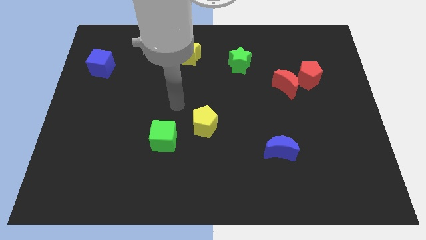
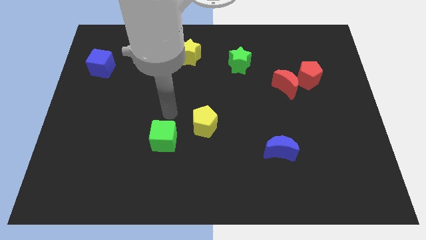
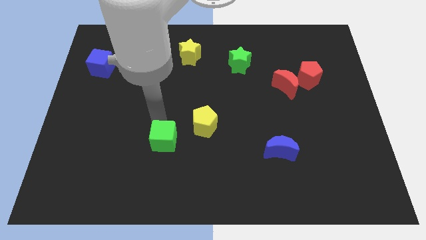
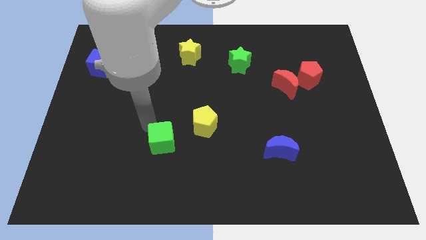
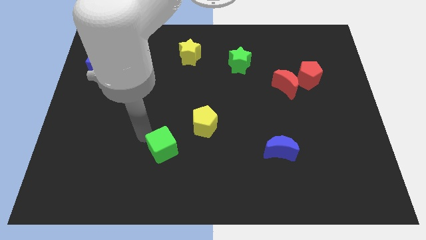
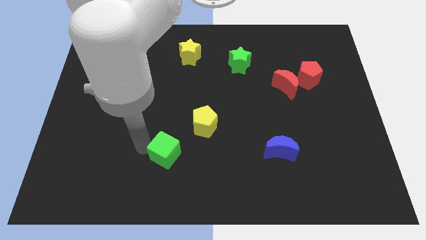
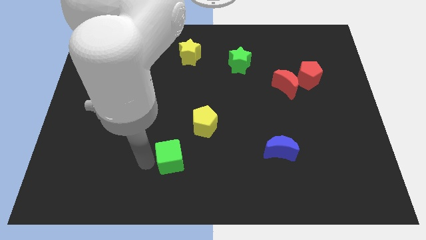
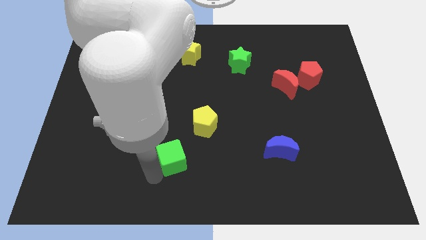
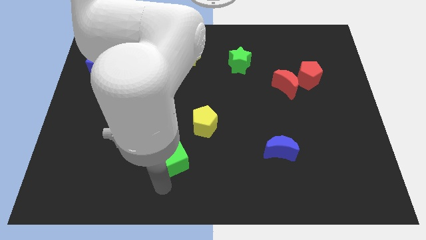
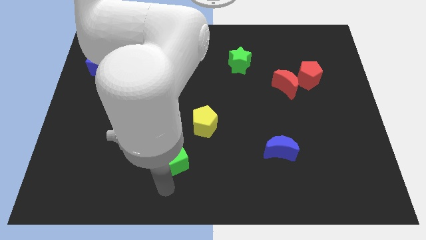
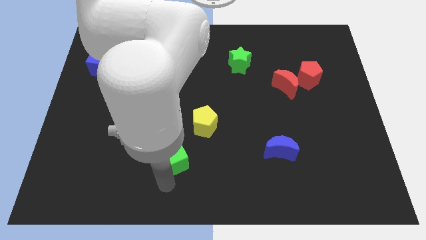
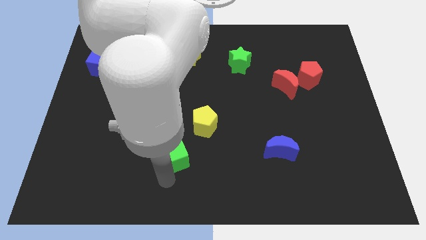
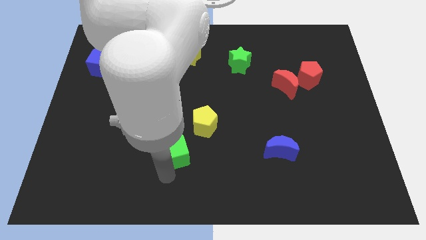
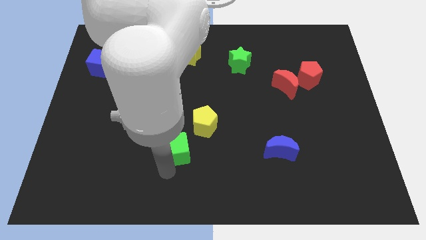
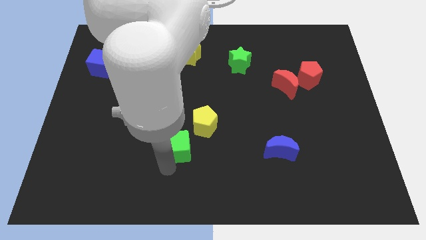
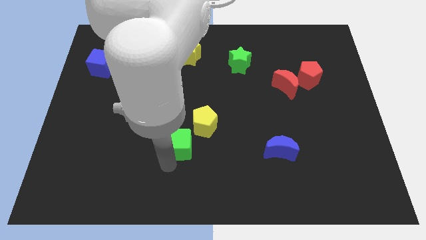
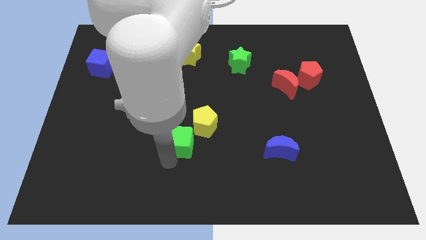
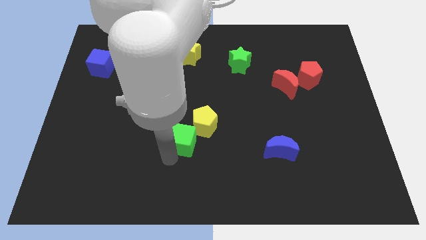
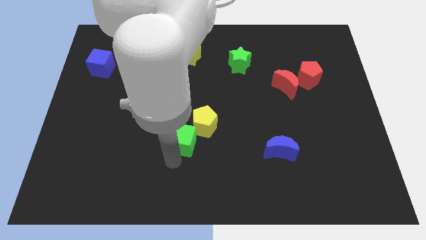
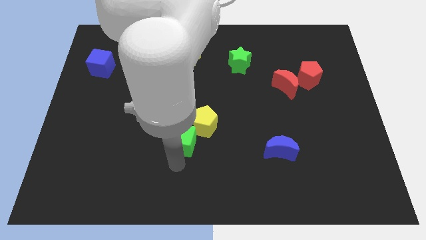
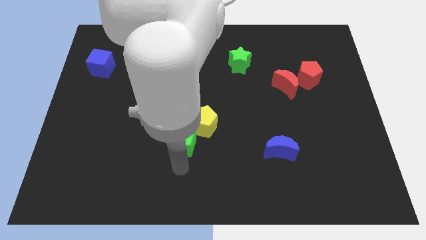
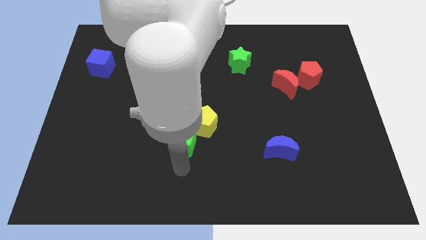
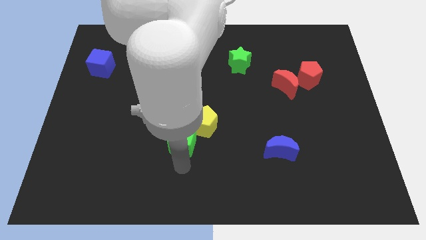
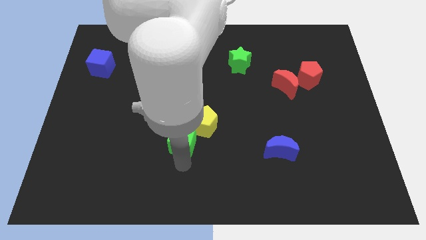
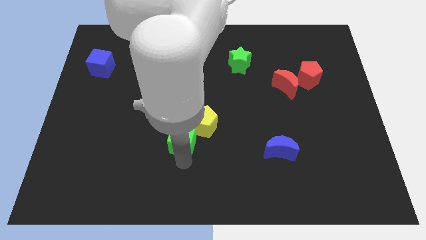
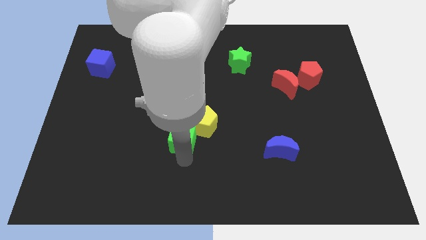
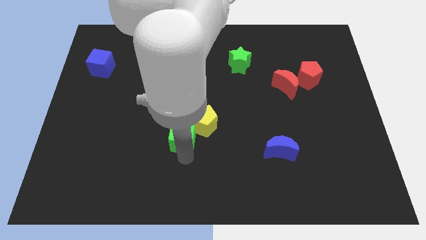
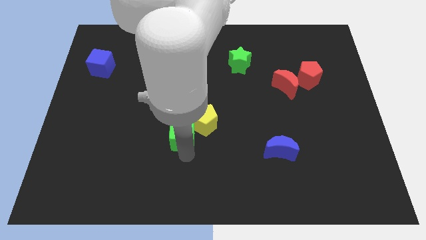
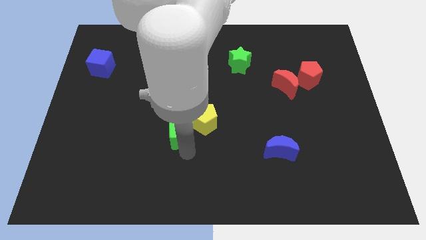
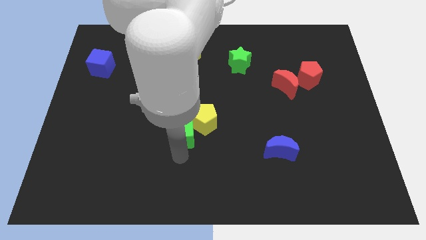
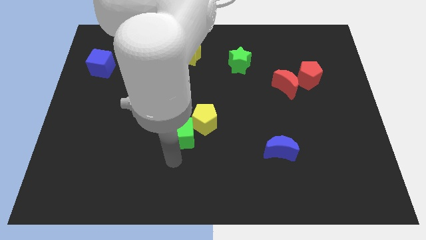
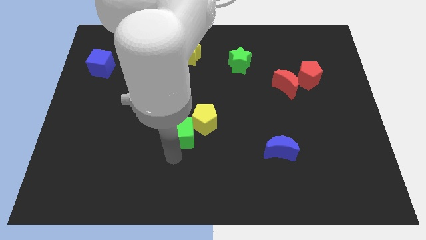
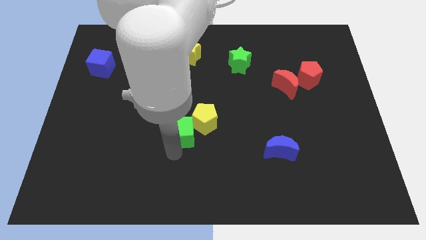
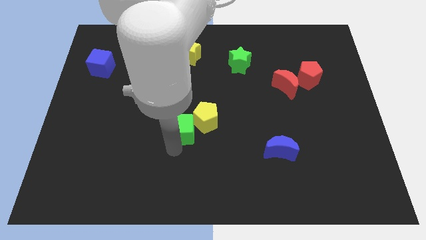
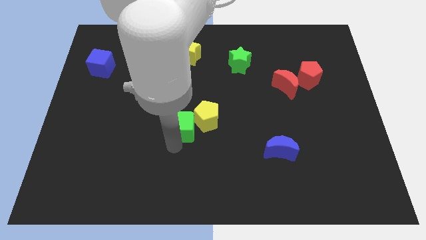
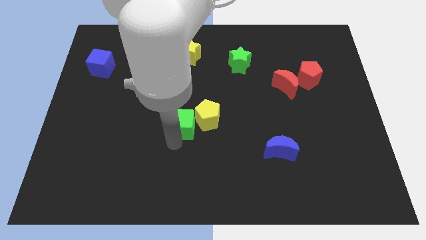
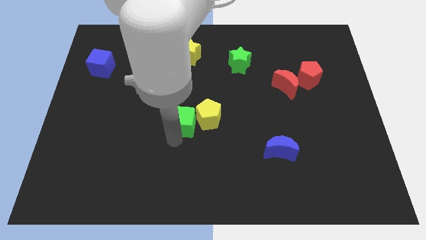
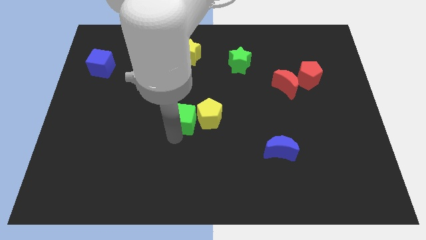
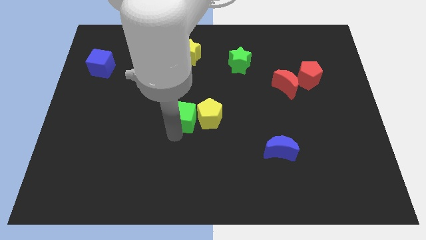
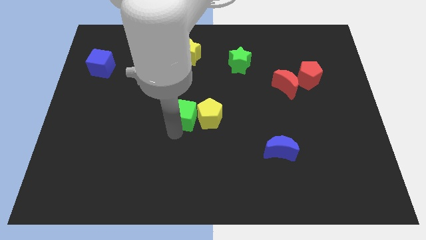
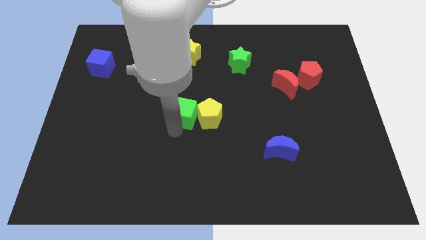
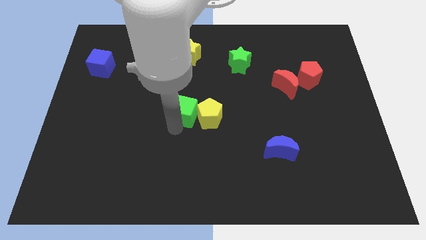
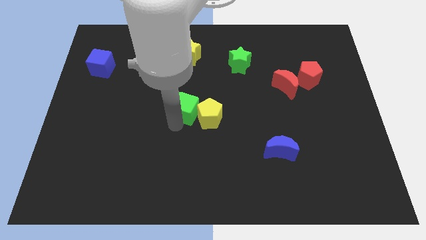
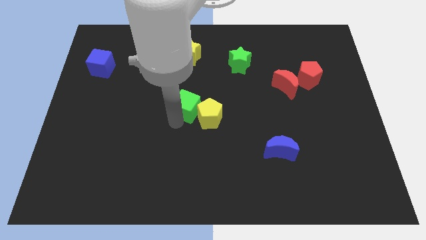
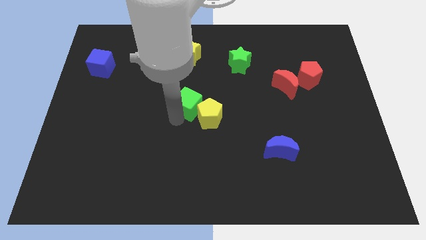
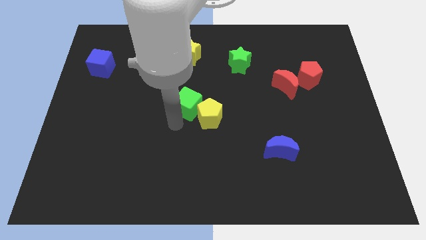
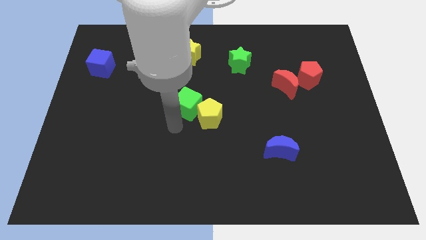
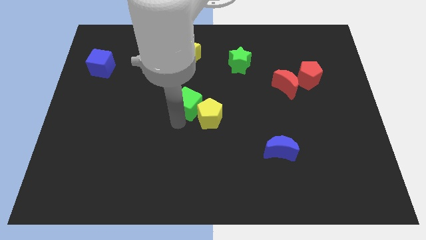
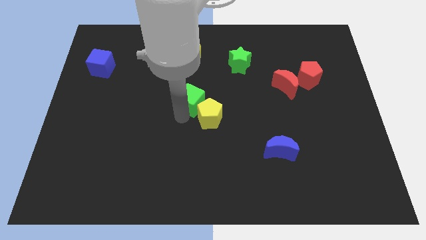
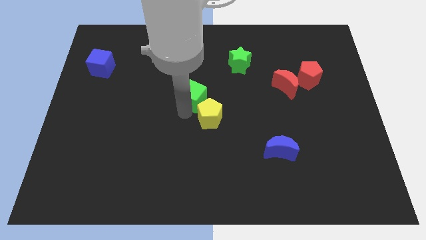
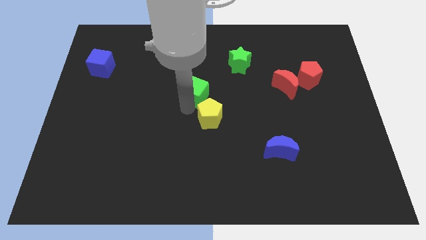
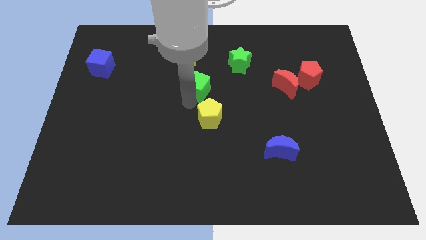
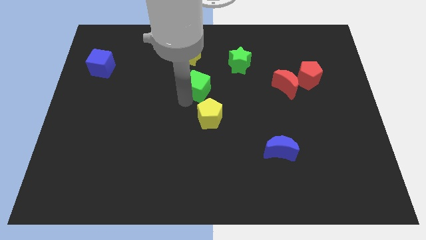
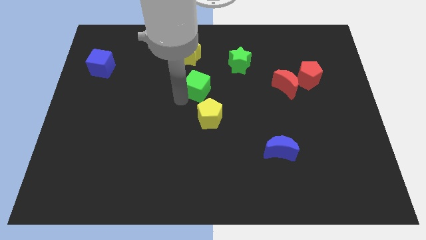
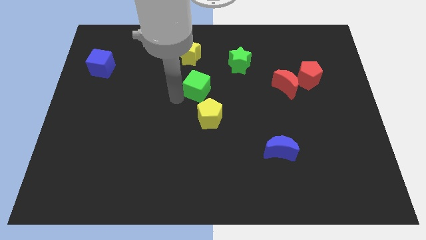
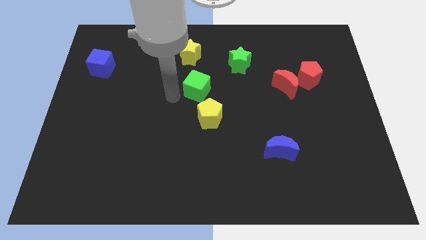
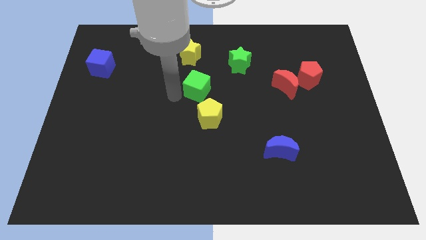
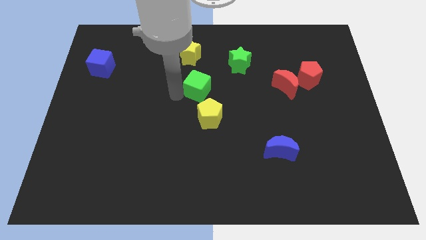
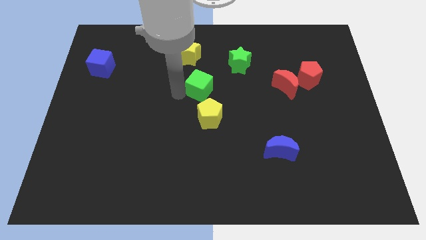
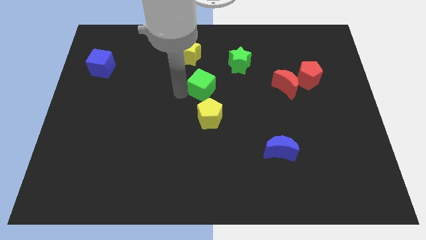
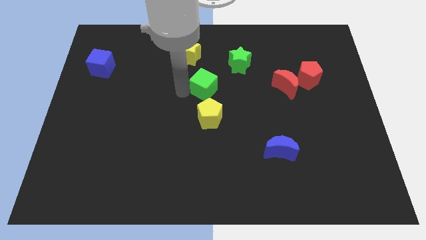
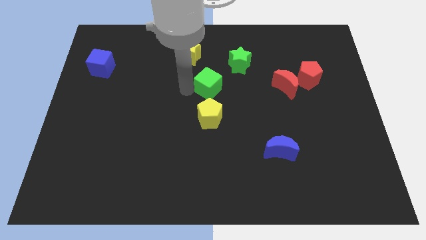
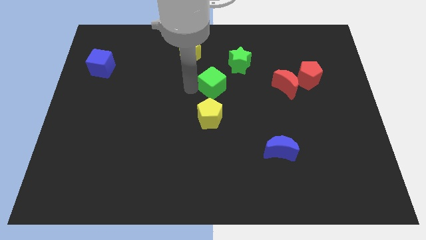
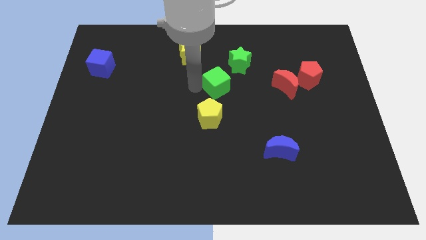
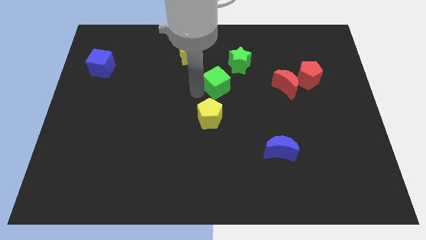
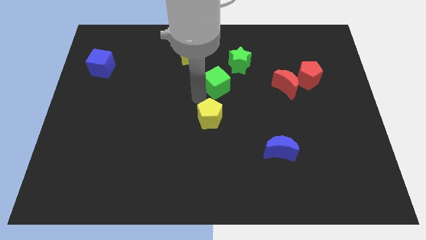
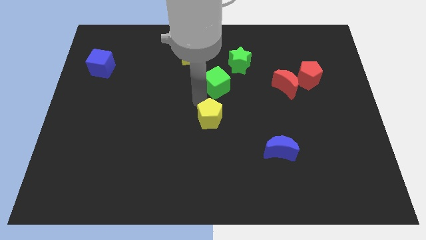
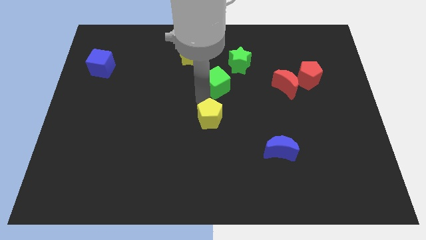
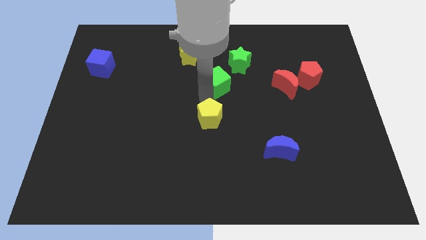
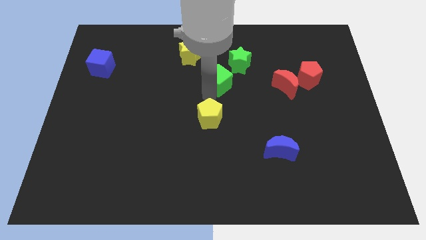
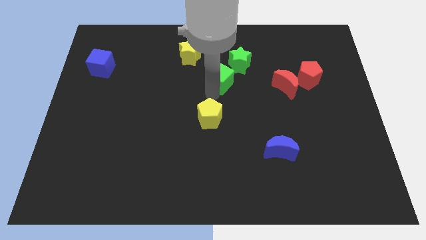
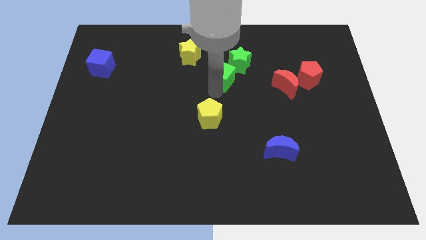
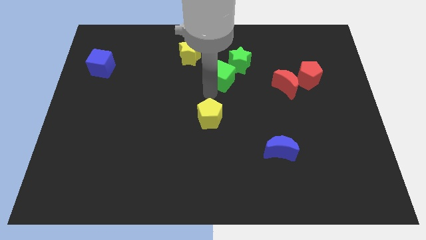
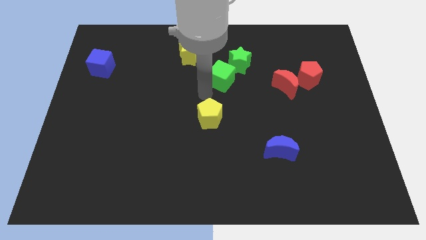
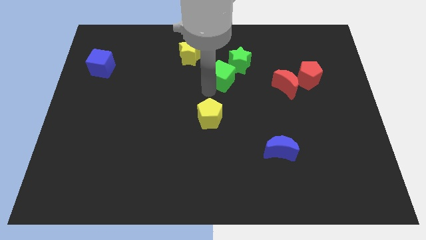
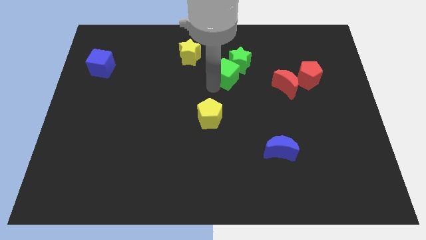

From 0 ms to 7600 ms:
put the green cube next to the green star
